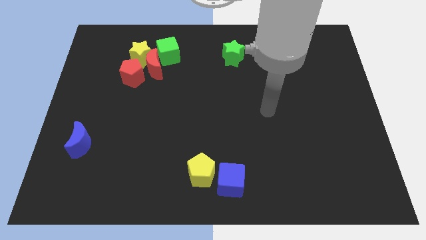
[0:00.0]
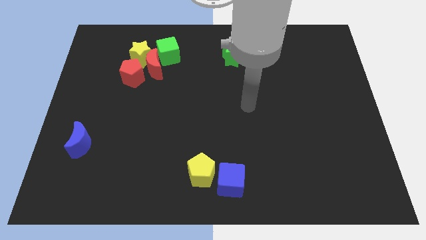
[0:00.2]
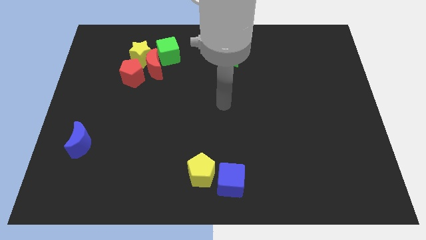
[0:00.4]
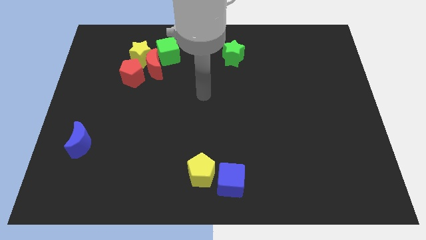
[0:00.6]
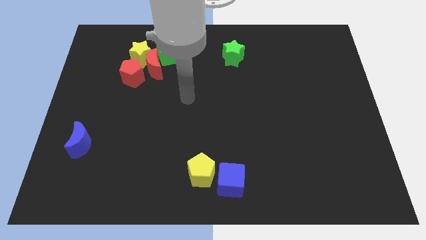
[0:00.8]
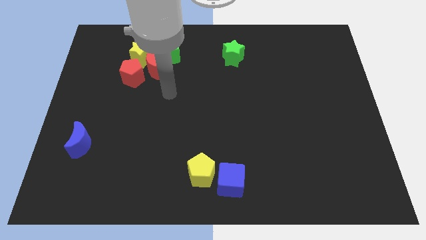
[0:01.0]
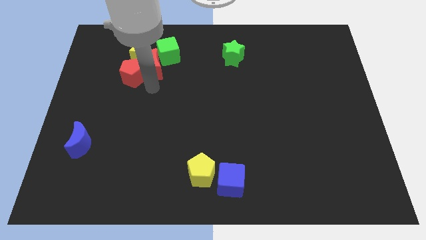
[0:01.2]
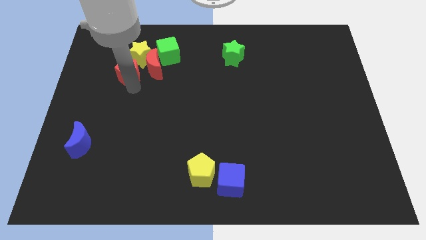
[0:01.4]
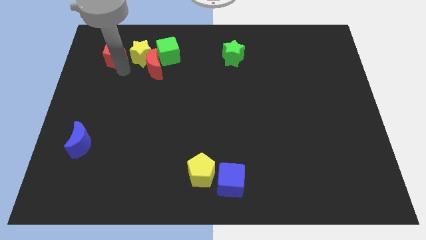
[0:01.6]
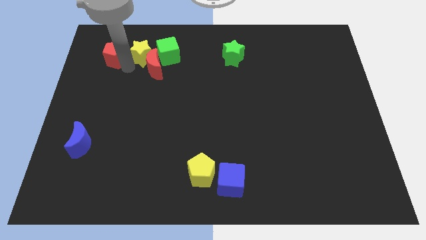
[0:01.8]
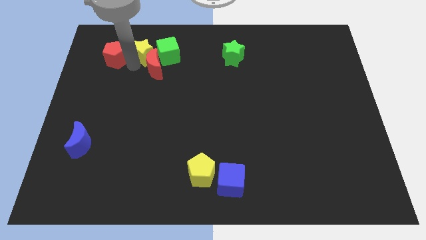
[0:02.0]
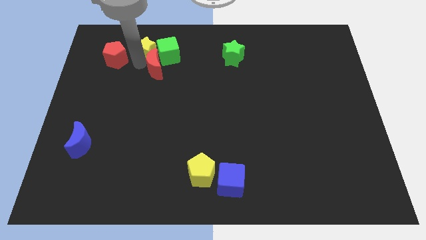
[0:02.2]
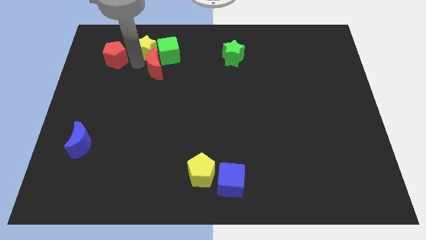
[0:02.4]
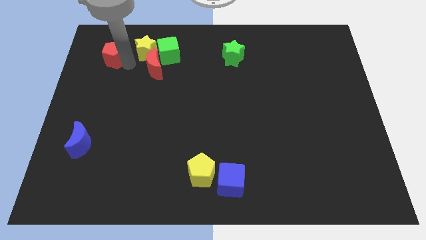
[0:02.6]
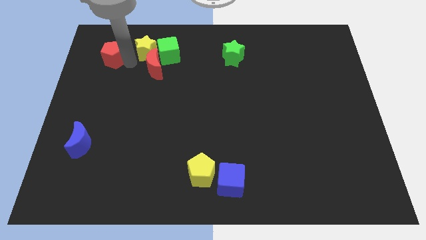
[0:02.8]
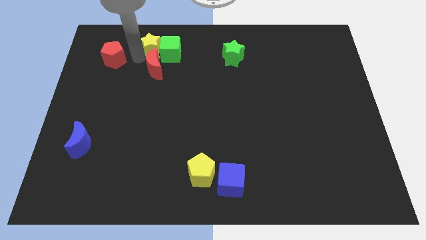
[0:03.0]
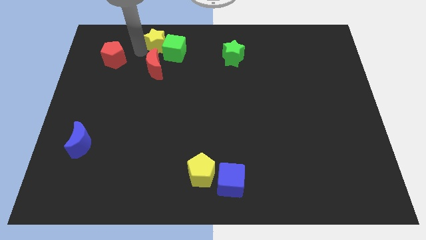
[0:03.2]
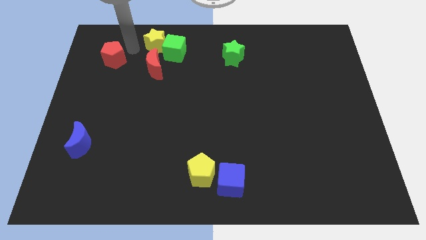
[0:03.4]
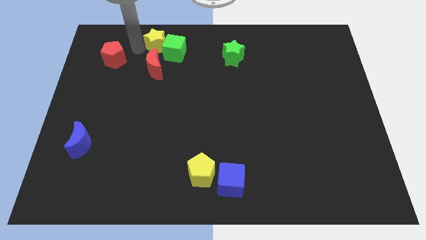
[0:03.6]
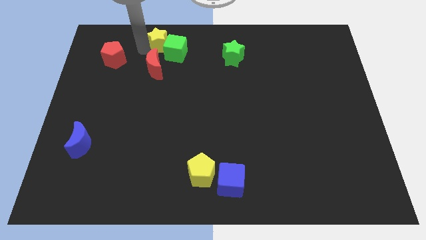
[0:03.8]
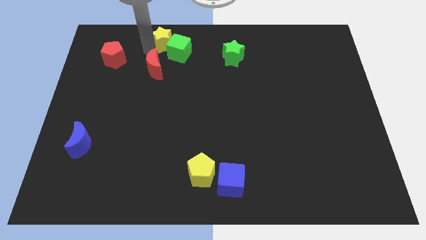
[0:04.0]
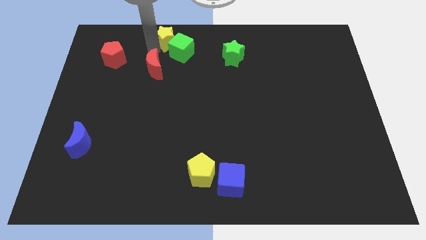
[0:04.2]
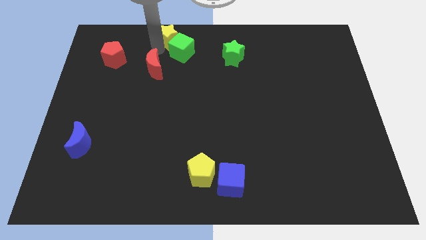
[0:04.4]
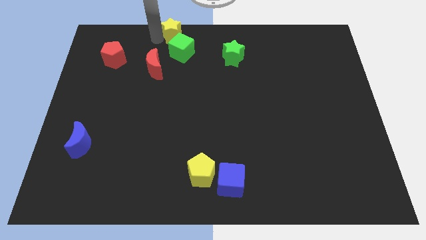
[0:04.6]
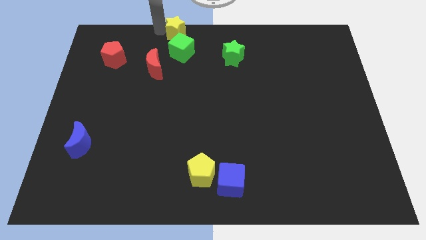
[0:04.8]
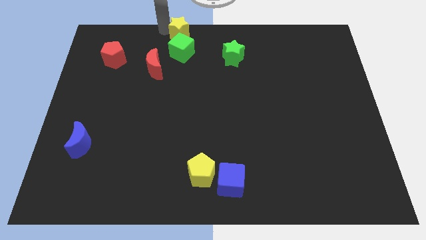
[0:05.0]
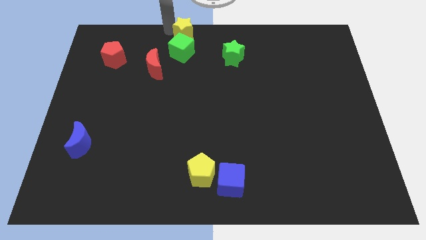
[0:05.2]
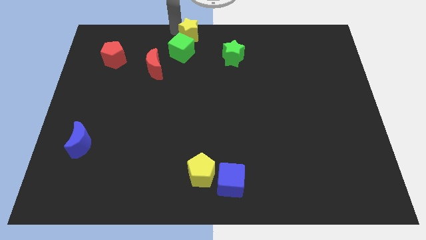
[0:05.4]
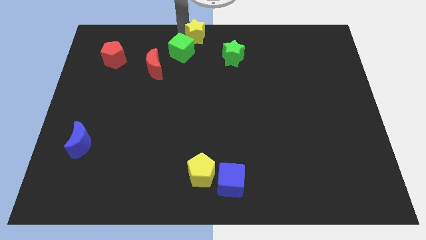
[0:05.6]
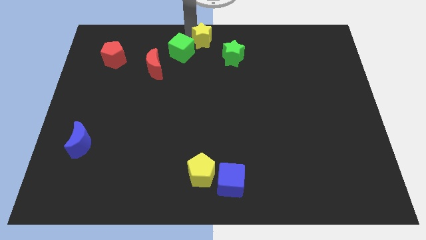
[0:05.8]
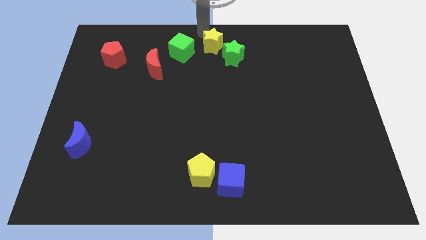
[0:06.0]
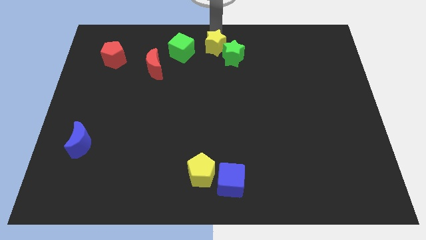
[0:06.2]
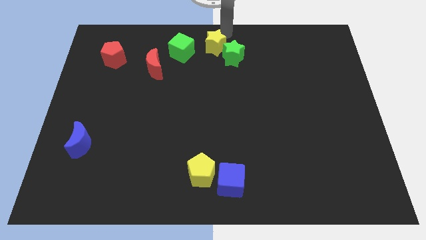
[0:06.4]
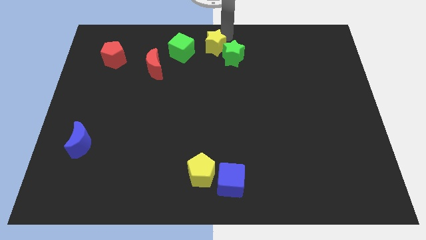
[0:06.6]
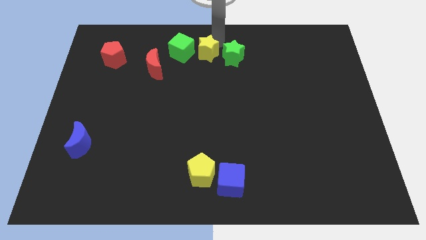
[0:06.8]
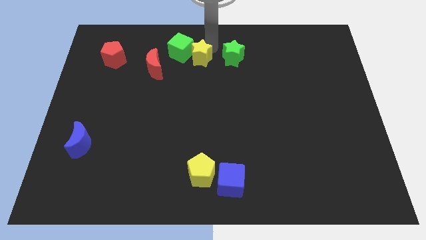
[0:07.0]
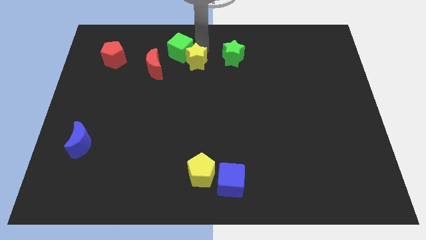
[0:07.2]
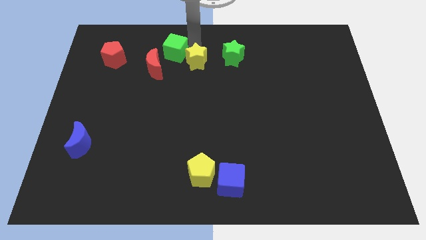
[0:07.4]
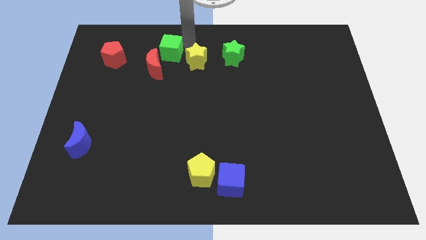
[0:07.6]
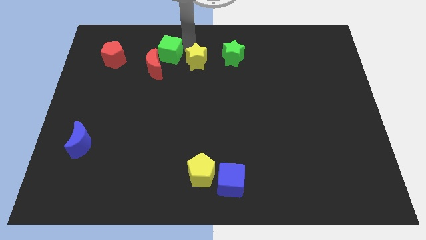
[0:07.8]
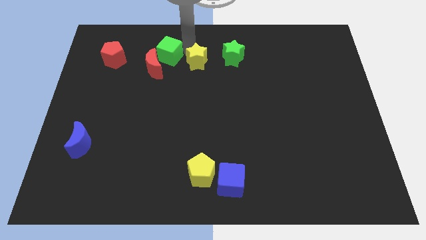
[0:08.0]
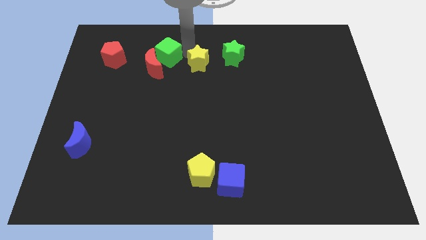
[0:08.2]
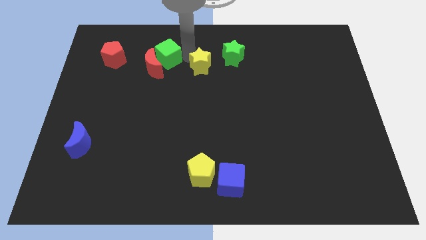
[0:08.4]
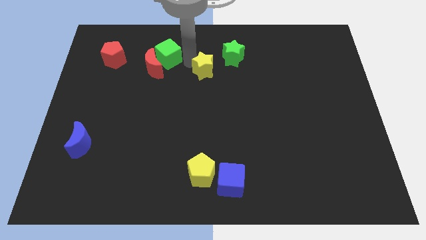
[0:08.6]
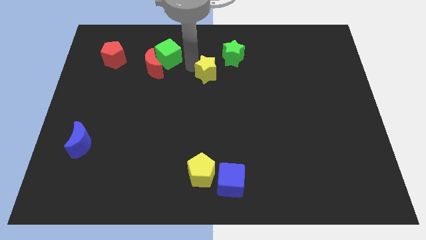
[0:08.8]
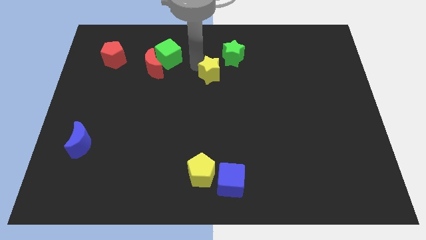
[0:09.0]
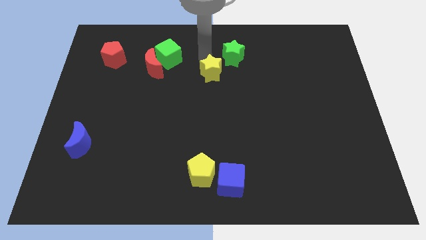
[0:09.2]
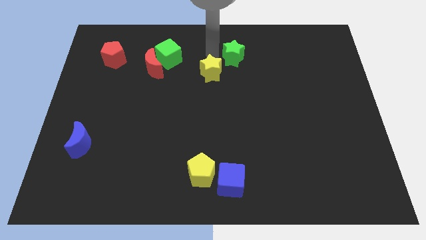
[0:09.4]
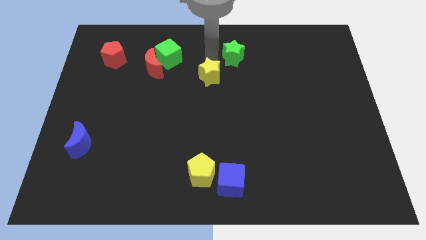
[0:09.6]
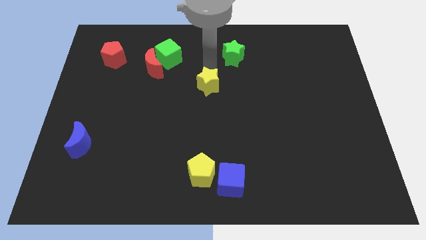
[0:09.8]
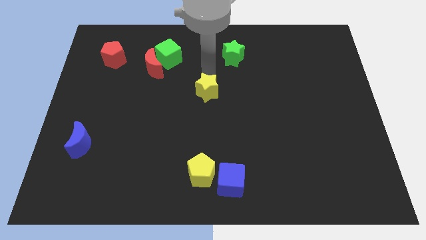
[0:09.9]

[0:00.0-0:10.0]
push the yellow star downwards and then to the right

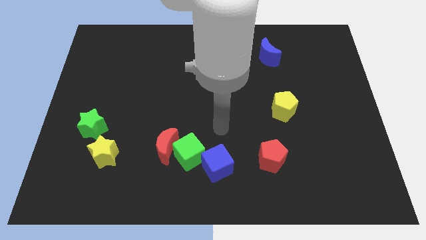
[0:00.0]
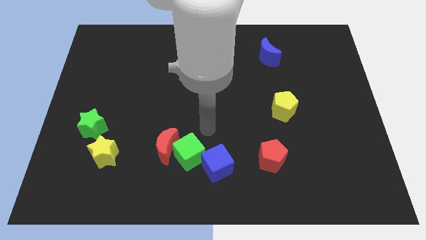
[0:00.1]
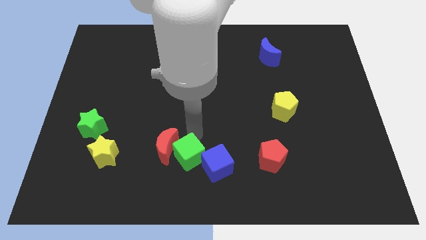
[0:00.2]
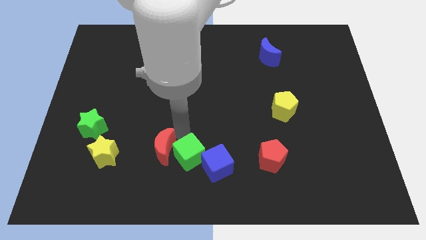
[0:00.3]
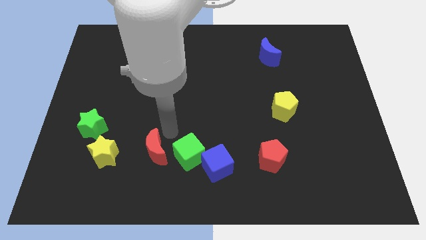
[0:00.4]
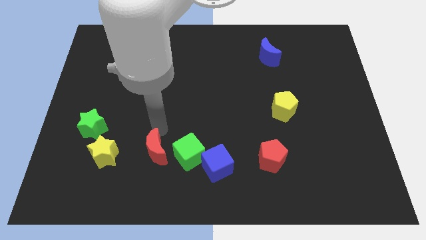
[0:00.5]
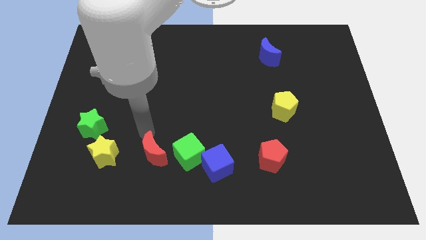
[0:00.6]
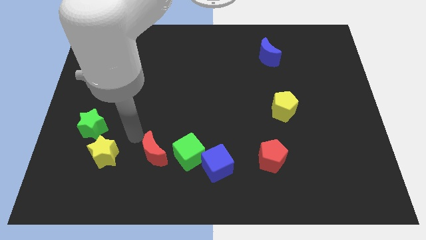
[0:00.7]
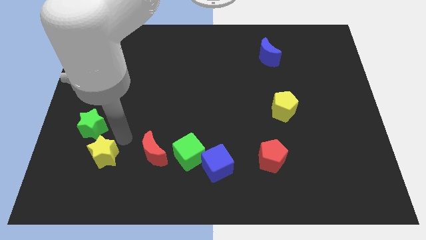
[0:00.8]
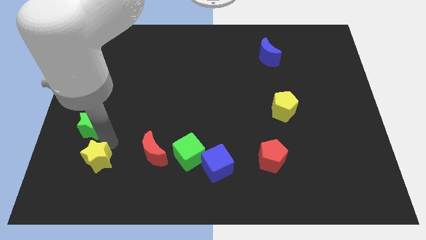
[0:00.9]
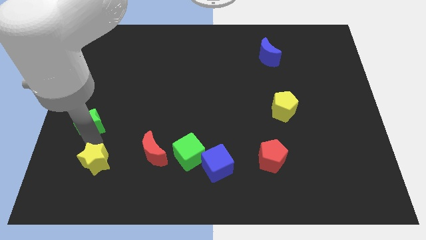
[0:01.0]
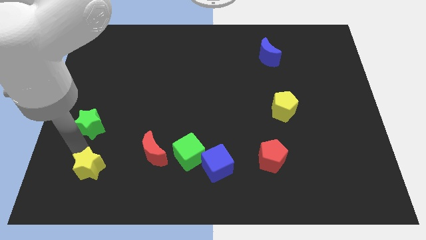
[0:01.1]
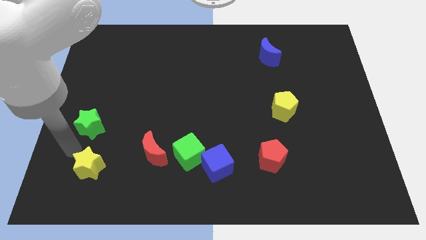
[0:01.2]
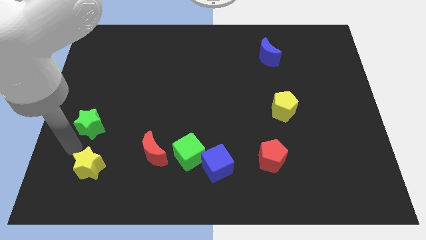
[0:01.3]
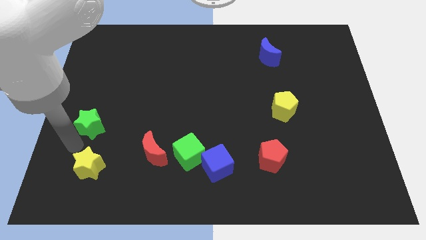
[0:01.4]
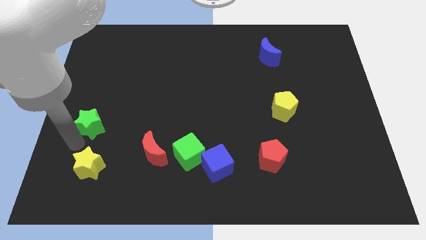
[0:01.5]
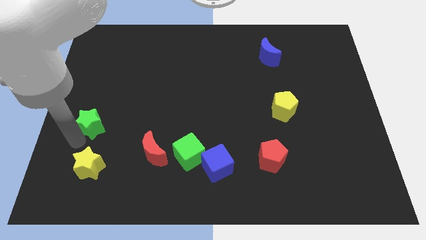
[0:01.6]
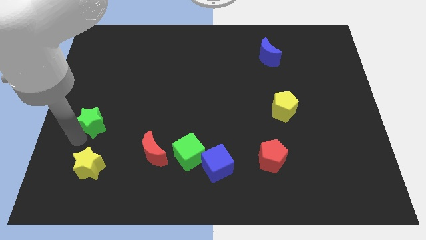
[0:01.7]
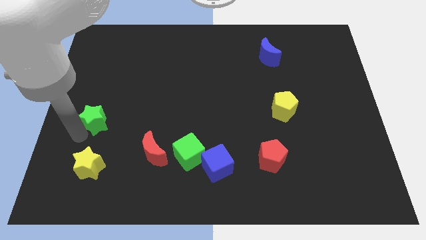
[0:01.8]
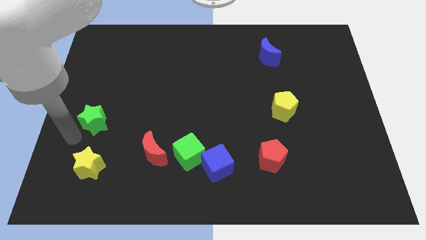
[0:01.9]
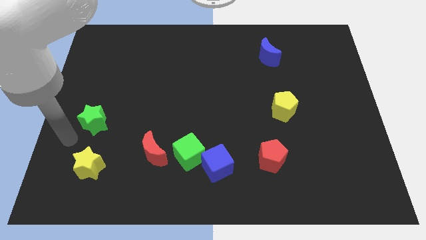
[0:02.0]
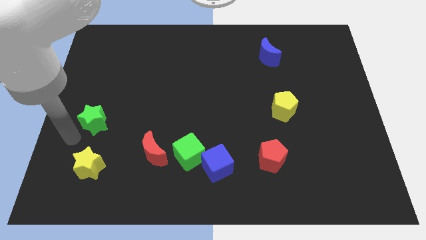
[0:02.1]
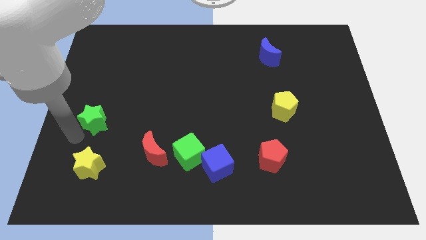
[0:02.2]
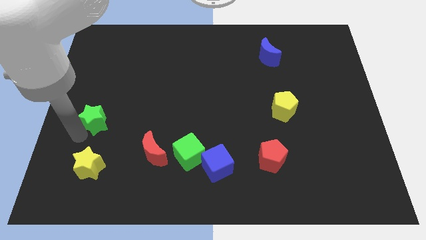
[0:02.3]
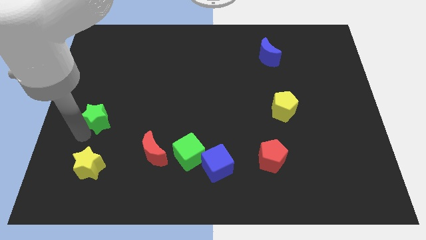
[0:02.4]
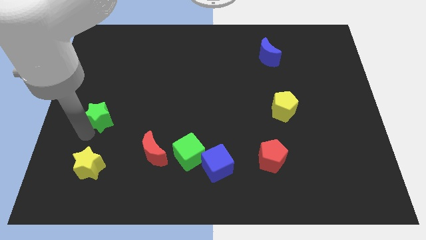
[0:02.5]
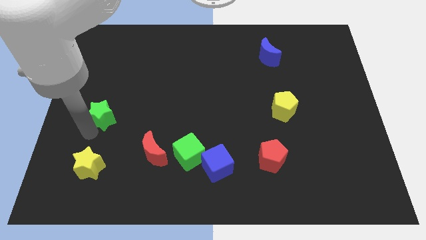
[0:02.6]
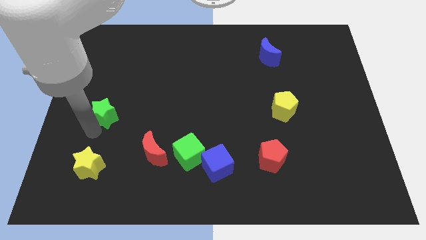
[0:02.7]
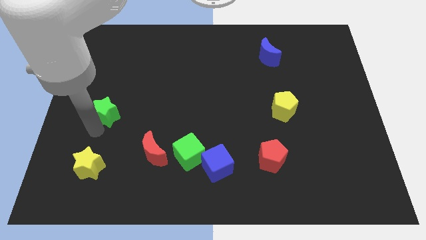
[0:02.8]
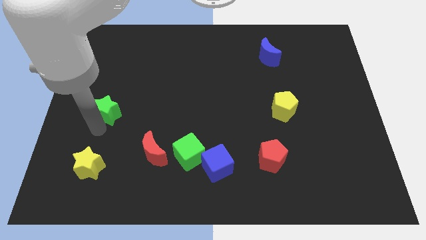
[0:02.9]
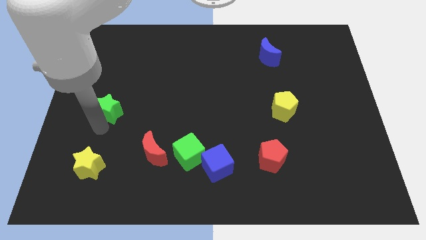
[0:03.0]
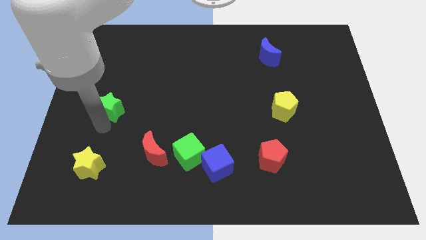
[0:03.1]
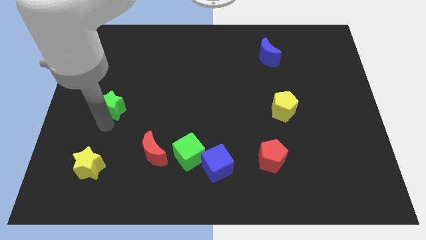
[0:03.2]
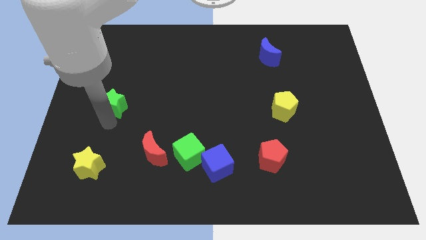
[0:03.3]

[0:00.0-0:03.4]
slide the green star a little diagonally up and to the right
